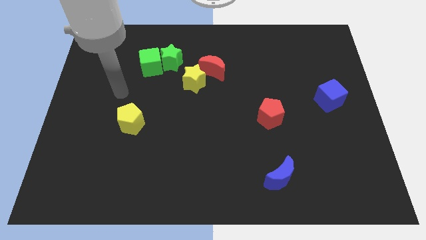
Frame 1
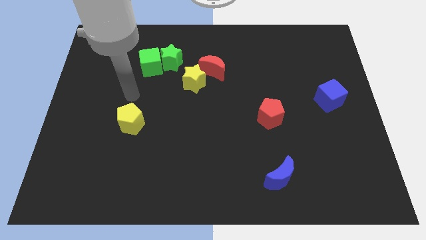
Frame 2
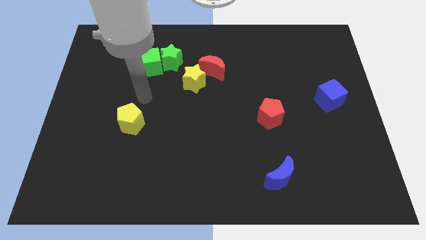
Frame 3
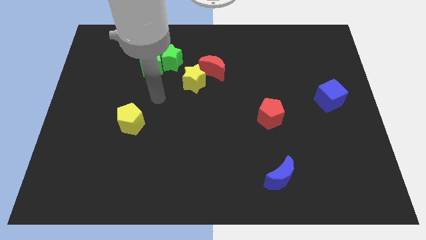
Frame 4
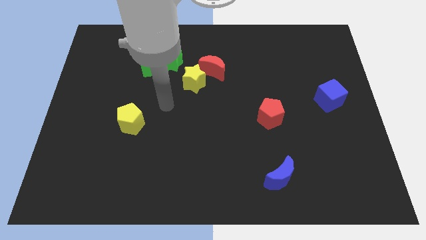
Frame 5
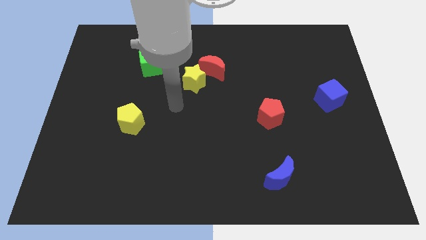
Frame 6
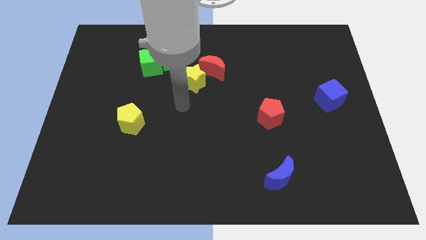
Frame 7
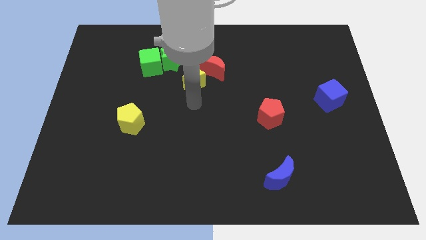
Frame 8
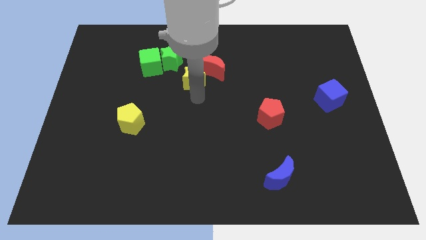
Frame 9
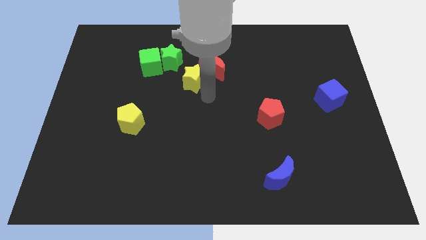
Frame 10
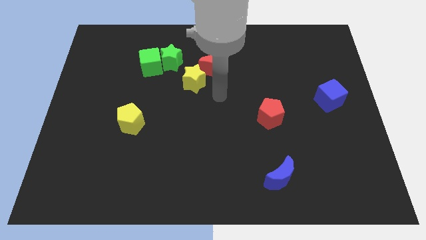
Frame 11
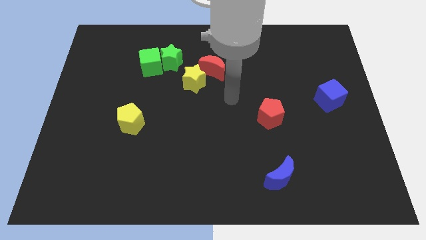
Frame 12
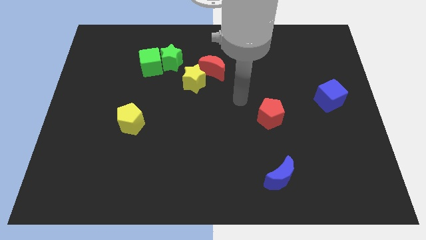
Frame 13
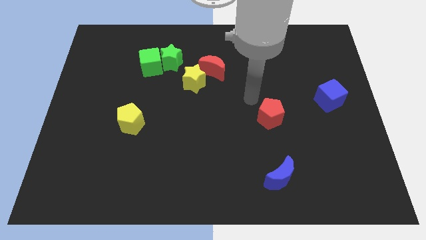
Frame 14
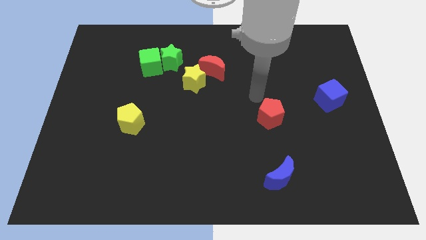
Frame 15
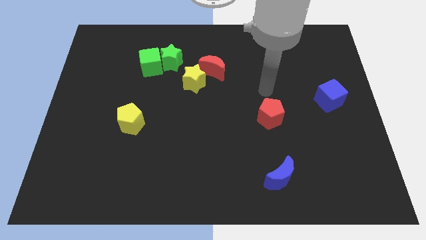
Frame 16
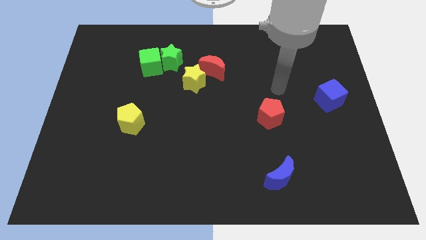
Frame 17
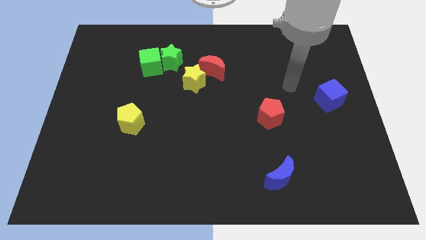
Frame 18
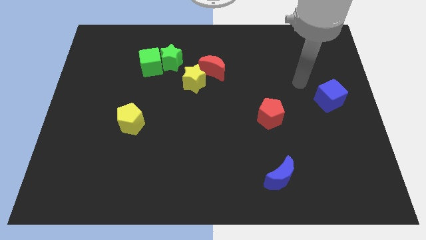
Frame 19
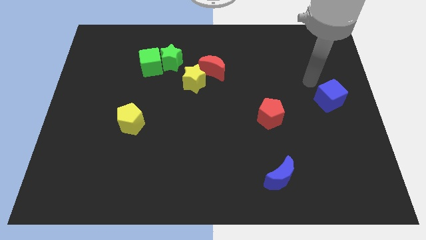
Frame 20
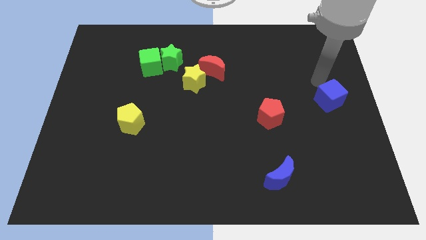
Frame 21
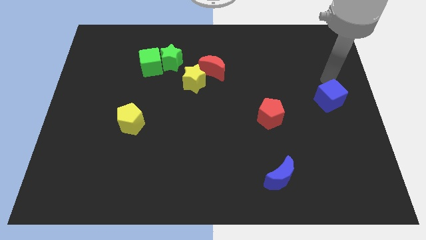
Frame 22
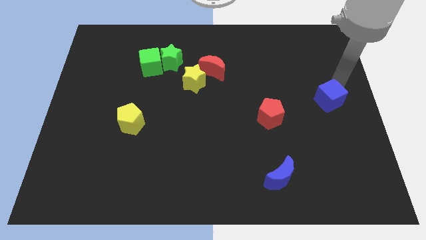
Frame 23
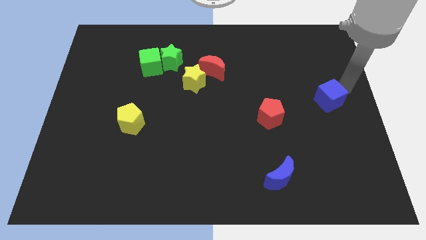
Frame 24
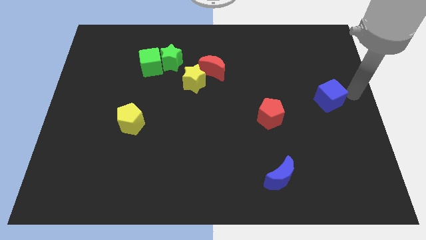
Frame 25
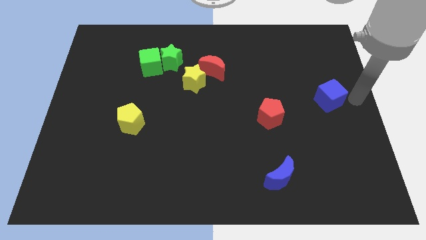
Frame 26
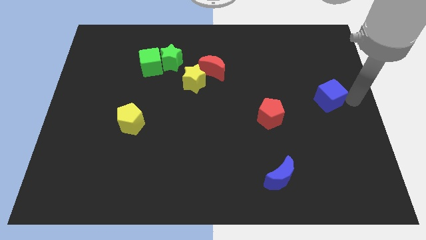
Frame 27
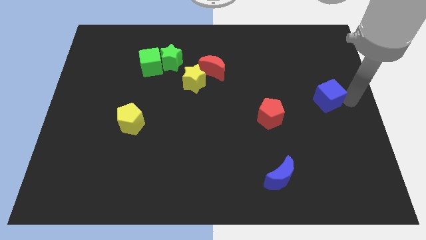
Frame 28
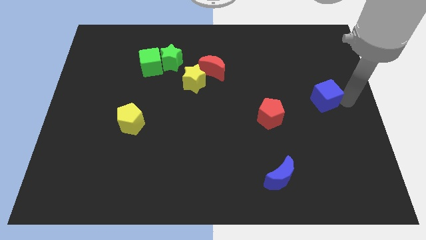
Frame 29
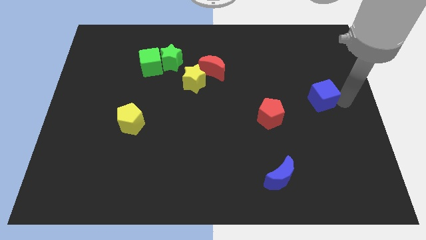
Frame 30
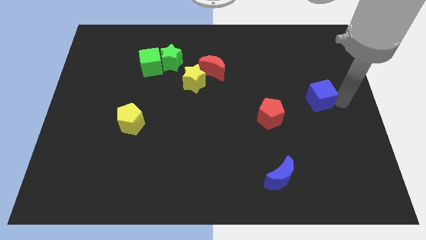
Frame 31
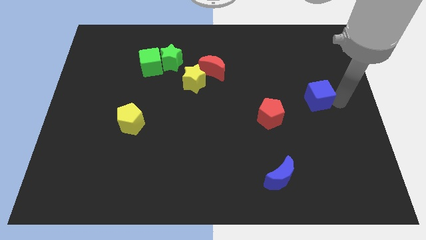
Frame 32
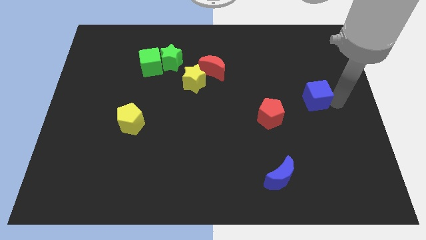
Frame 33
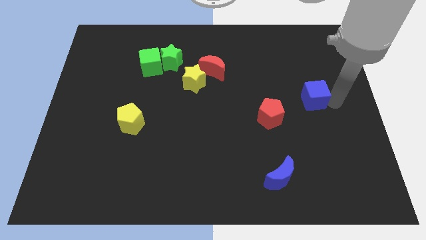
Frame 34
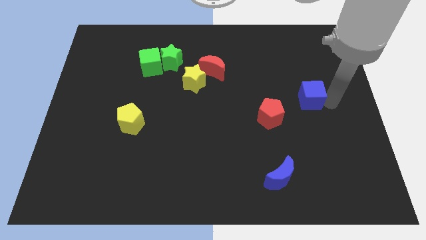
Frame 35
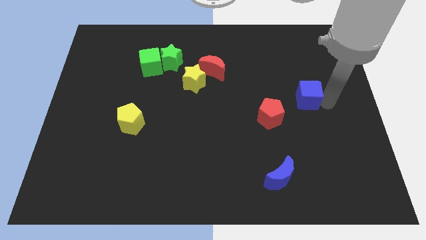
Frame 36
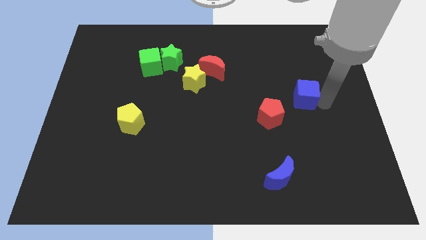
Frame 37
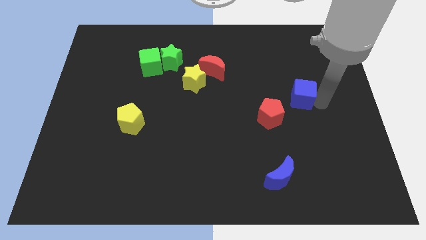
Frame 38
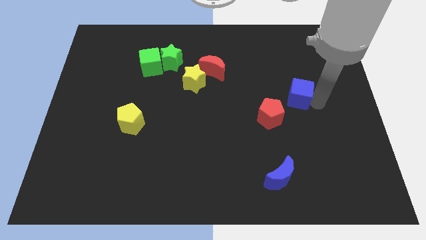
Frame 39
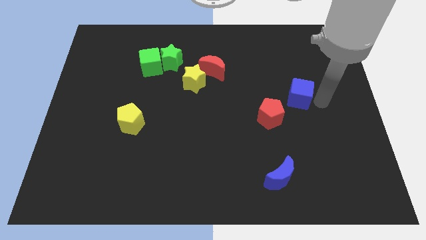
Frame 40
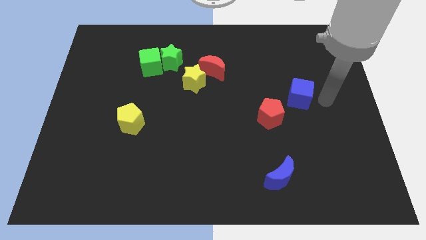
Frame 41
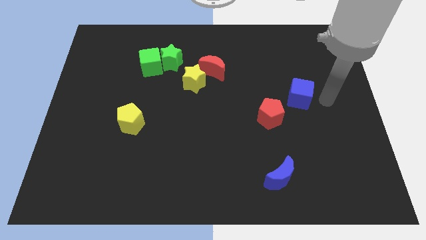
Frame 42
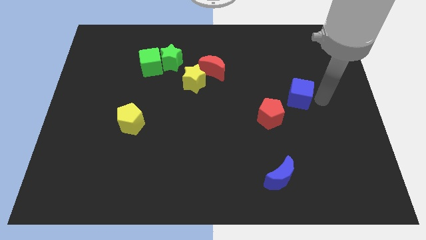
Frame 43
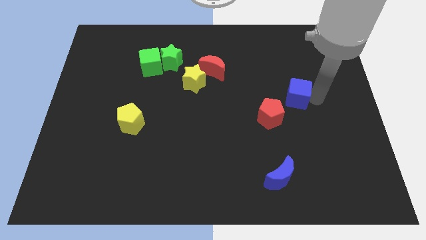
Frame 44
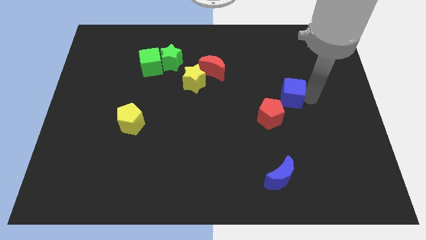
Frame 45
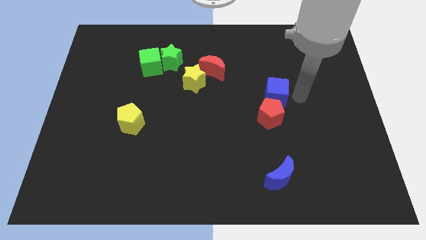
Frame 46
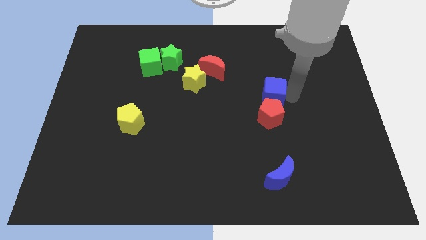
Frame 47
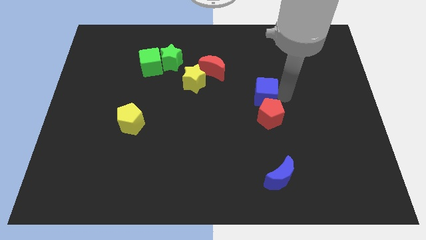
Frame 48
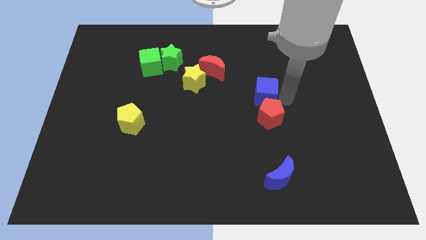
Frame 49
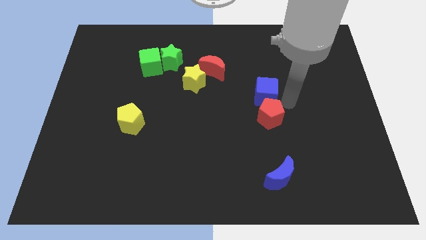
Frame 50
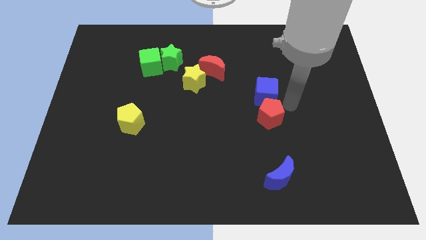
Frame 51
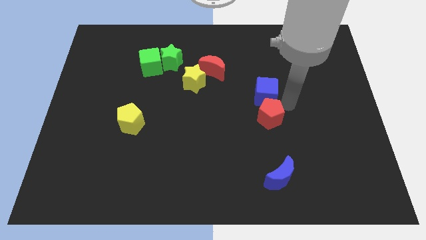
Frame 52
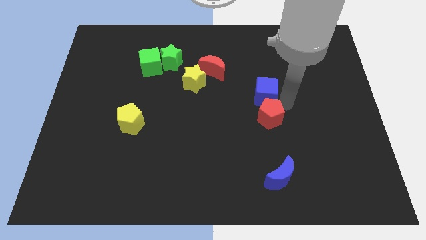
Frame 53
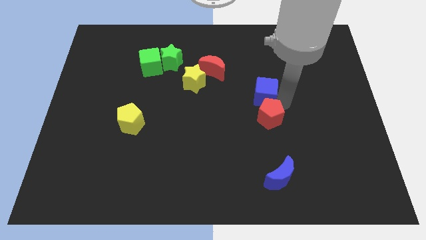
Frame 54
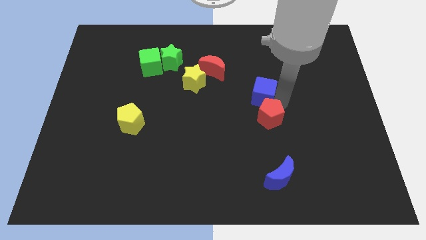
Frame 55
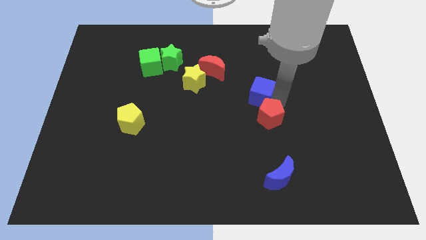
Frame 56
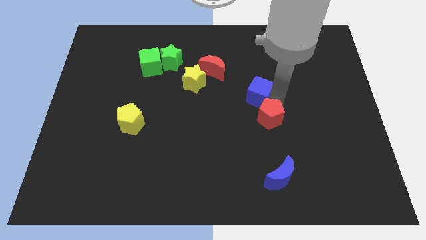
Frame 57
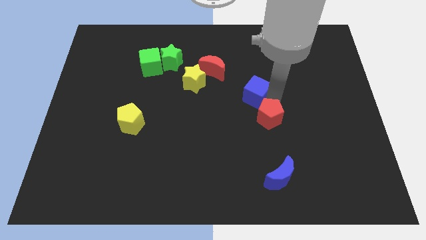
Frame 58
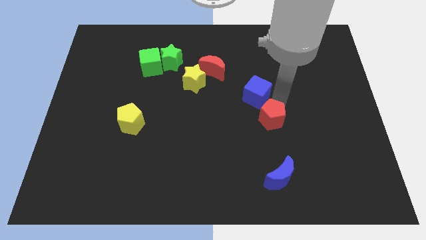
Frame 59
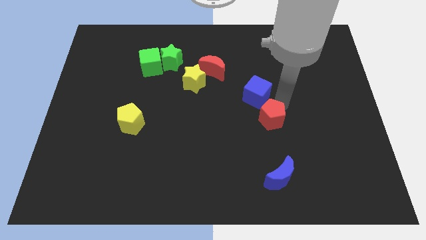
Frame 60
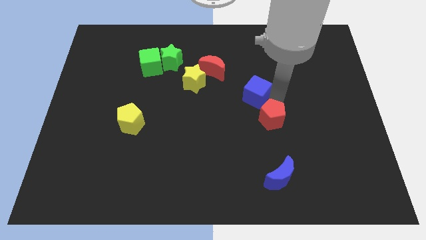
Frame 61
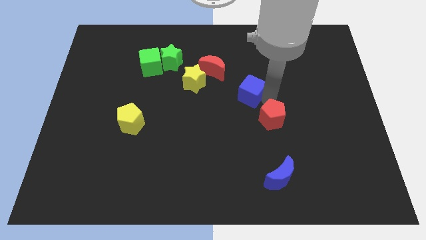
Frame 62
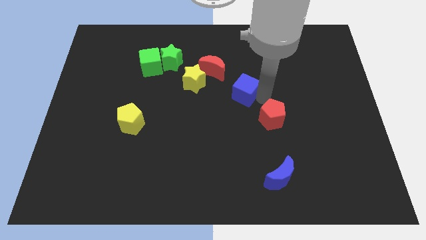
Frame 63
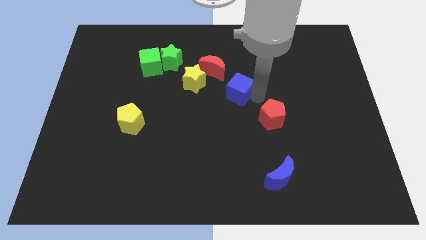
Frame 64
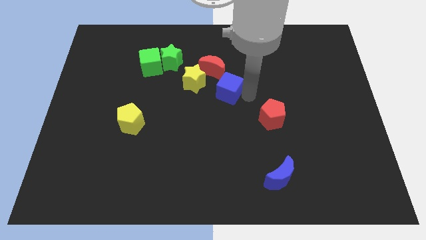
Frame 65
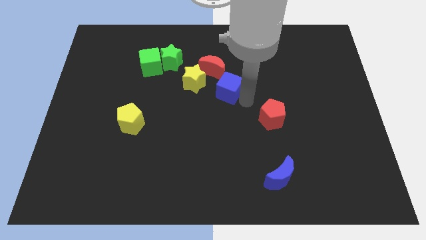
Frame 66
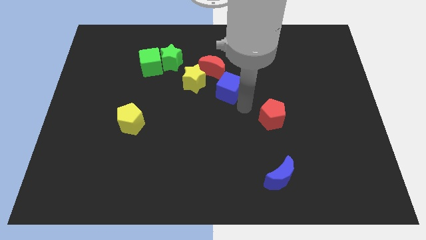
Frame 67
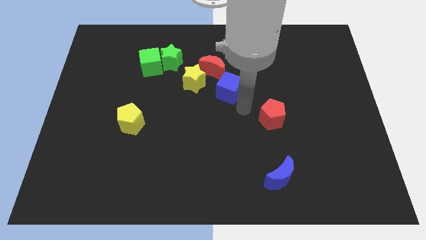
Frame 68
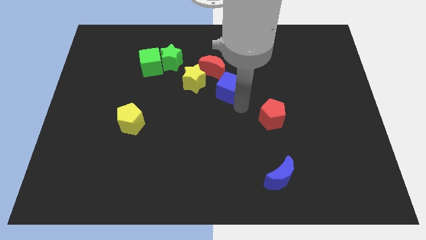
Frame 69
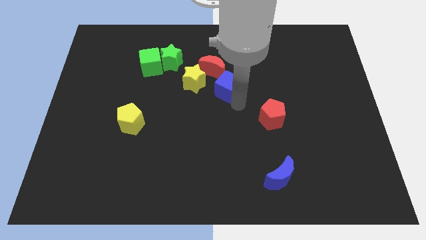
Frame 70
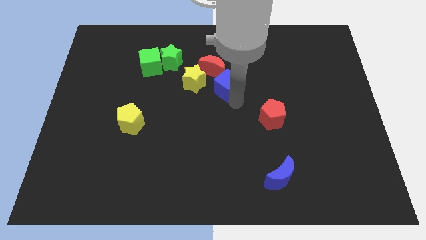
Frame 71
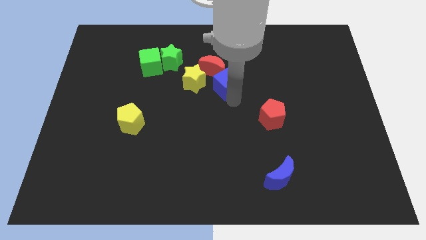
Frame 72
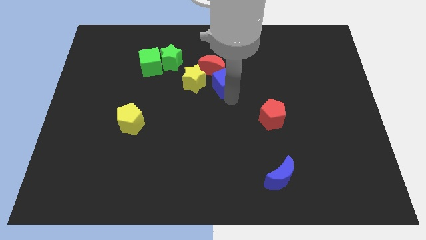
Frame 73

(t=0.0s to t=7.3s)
put the blue cube close to the red moon
